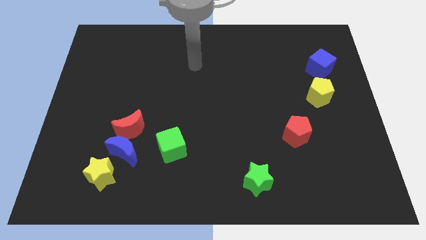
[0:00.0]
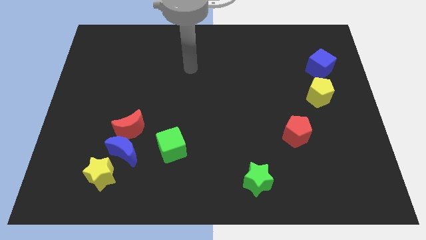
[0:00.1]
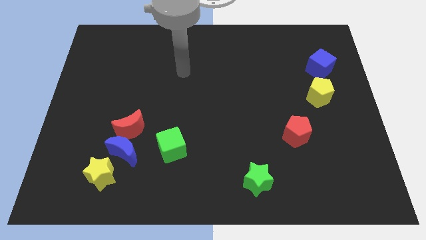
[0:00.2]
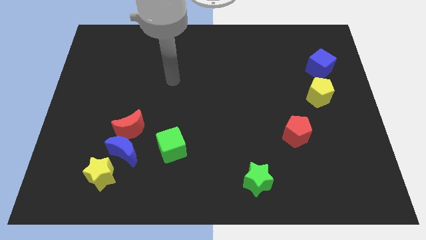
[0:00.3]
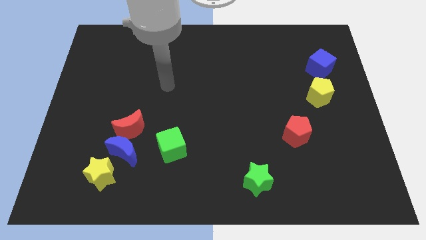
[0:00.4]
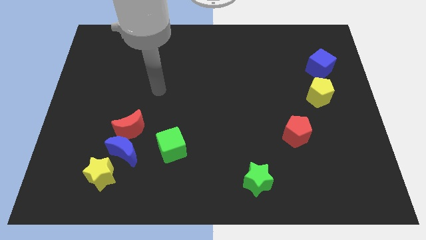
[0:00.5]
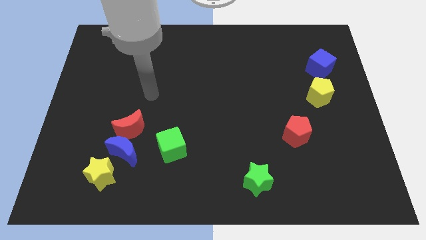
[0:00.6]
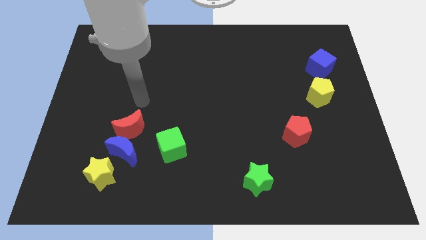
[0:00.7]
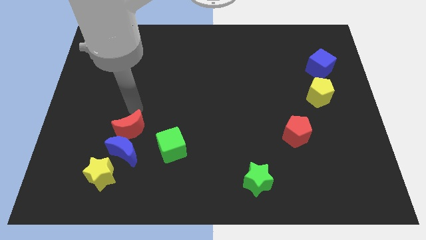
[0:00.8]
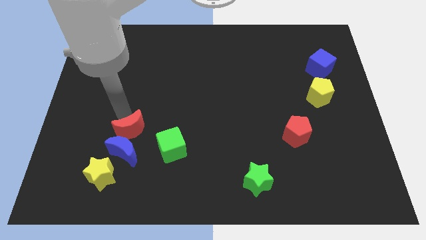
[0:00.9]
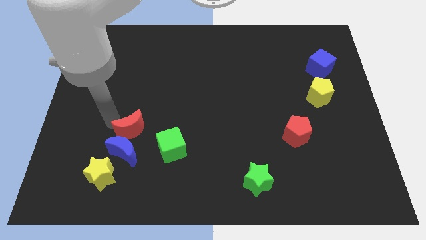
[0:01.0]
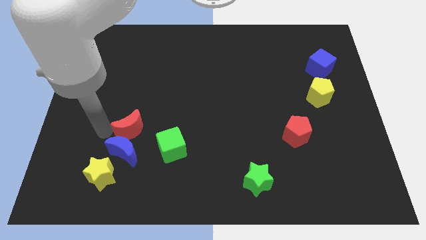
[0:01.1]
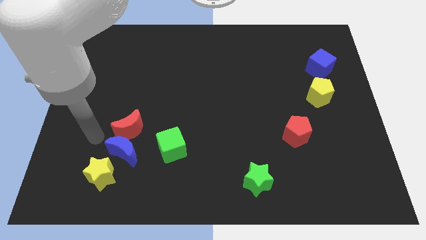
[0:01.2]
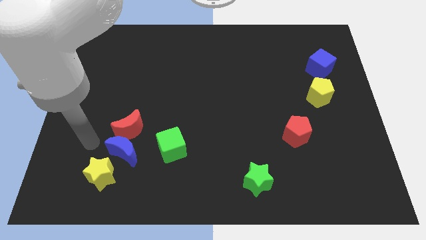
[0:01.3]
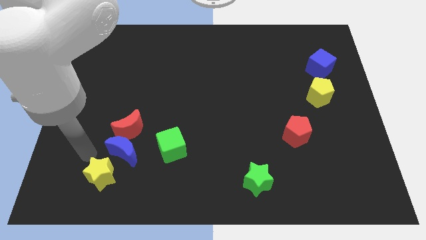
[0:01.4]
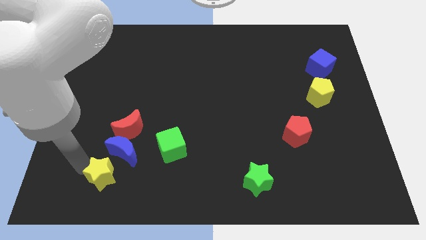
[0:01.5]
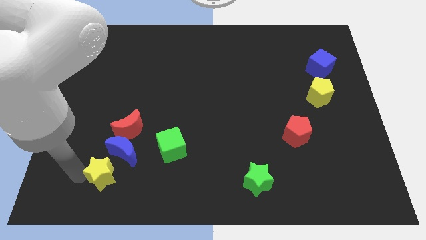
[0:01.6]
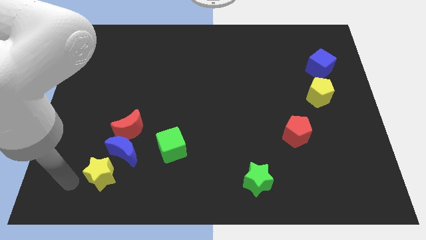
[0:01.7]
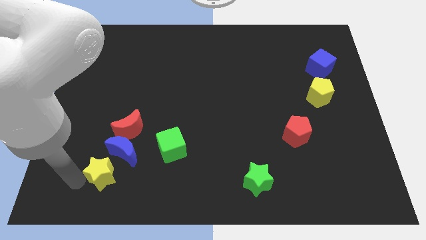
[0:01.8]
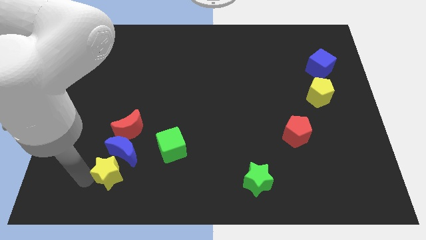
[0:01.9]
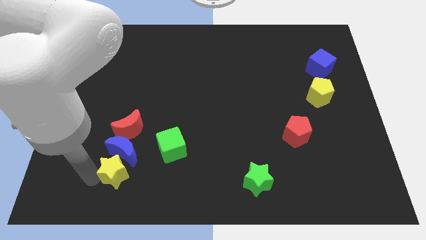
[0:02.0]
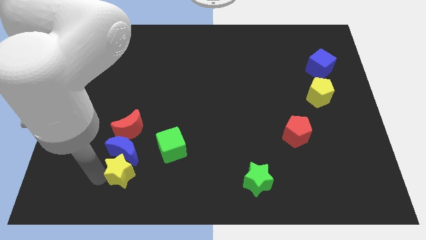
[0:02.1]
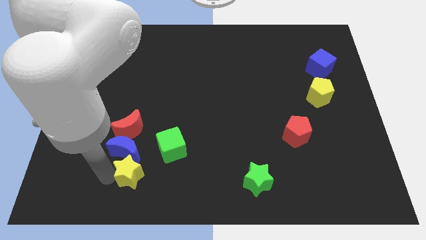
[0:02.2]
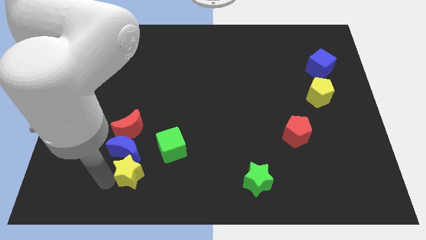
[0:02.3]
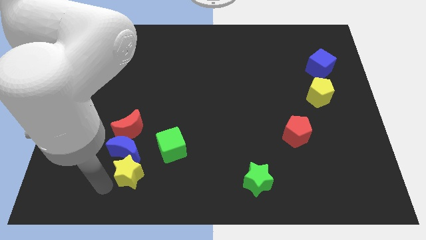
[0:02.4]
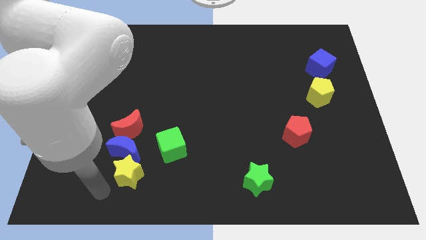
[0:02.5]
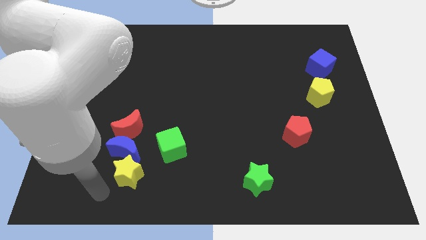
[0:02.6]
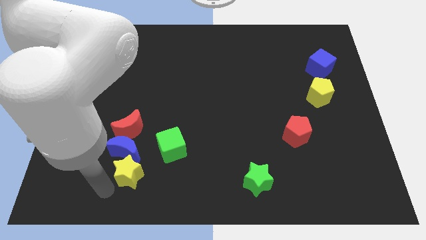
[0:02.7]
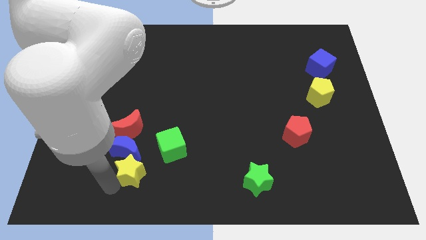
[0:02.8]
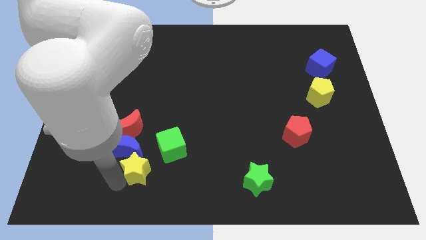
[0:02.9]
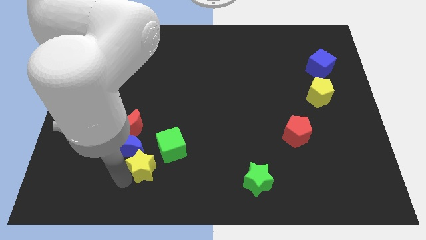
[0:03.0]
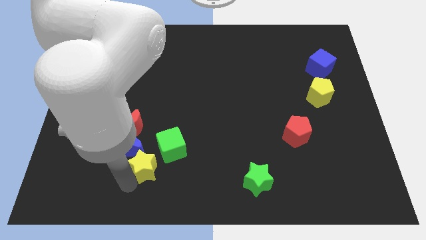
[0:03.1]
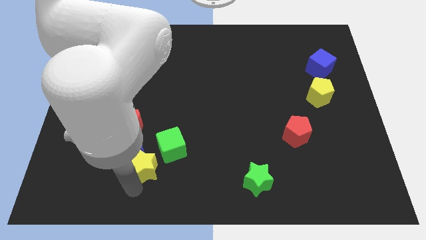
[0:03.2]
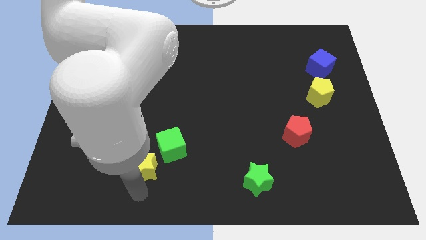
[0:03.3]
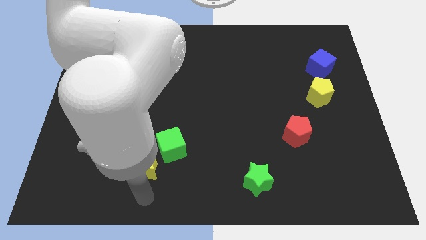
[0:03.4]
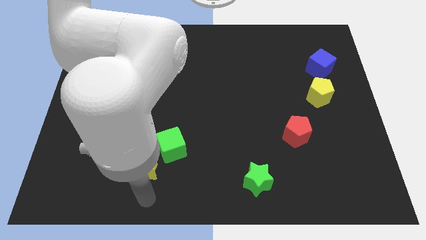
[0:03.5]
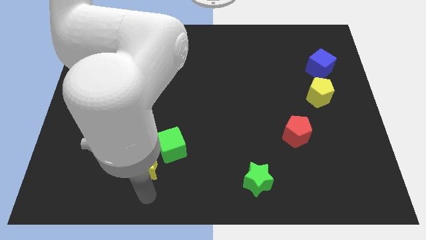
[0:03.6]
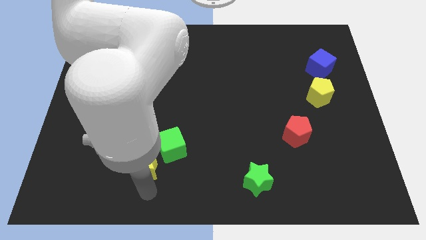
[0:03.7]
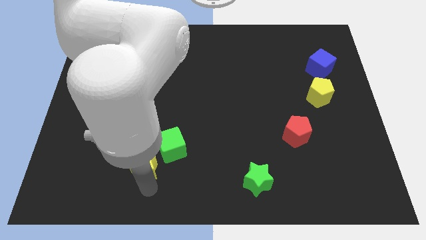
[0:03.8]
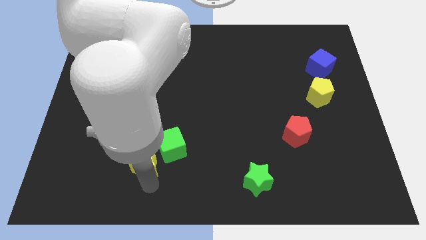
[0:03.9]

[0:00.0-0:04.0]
push the yellow star up and to the right diagonally a little bit

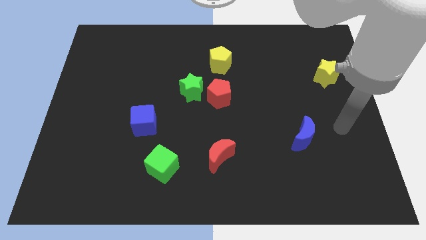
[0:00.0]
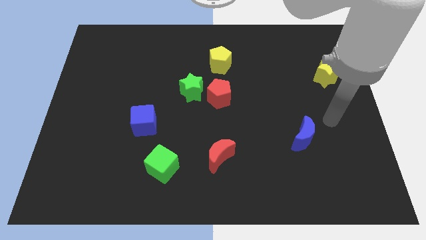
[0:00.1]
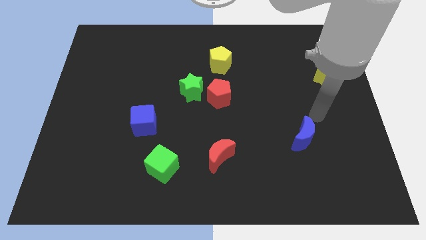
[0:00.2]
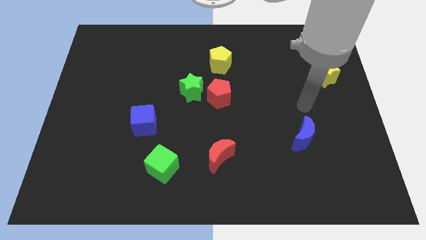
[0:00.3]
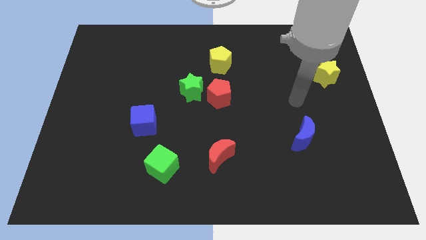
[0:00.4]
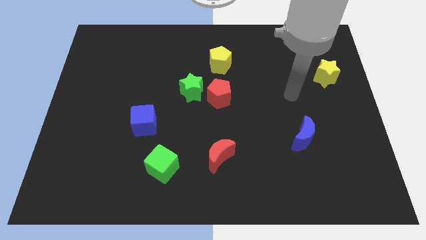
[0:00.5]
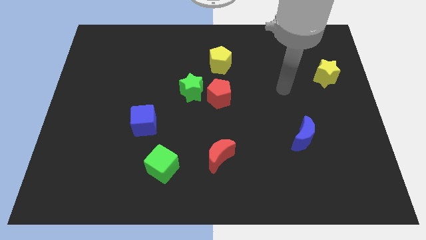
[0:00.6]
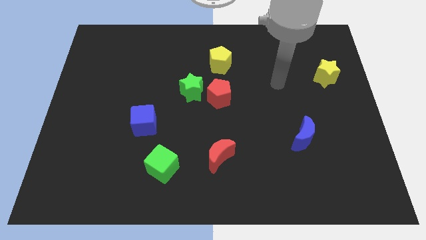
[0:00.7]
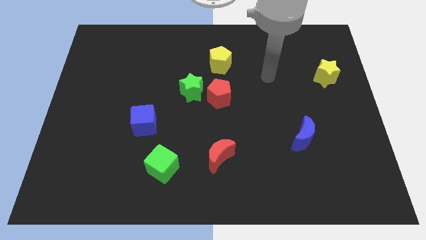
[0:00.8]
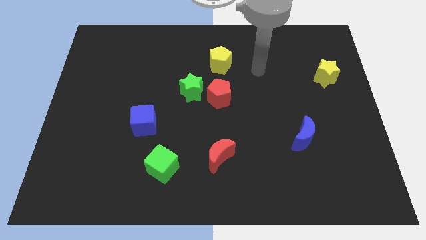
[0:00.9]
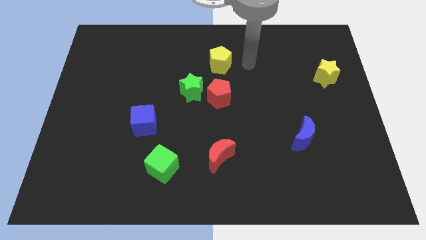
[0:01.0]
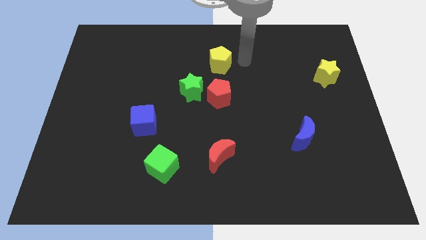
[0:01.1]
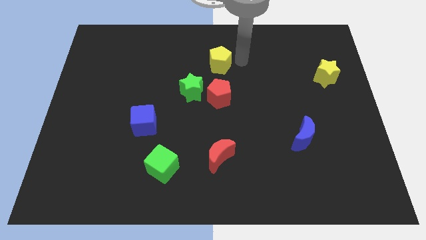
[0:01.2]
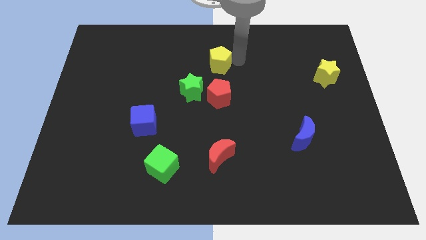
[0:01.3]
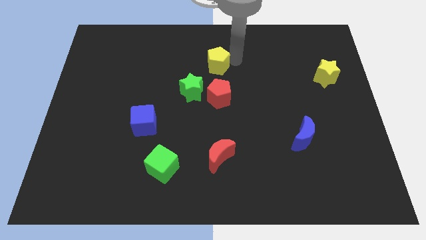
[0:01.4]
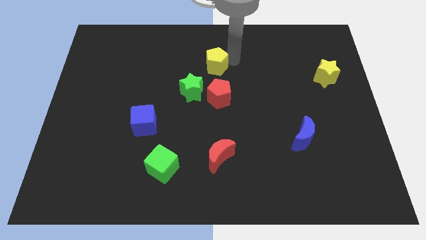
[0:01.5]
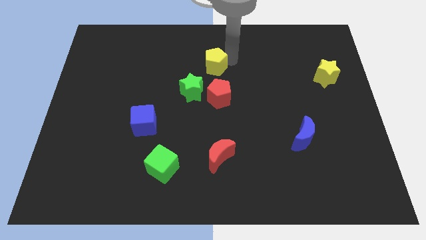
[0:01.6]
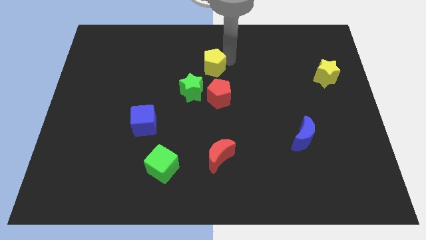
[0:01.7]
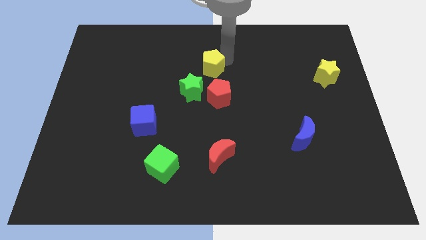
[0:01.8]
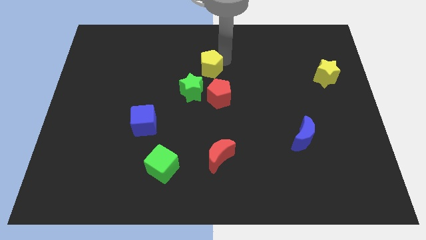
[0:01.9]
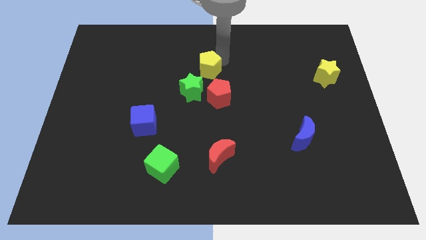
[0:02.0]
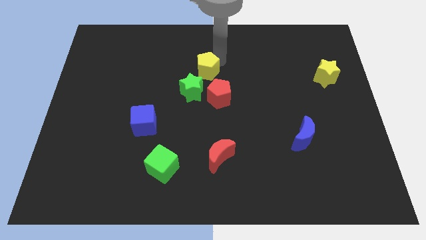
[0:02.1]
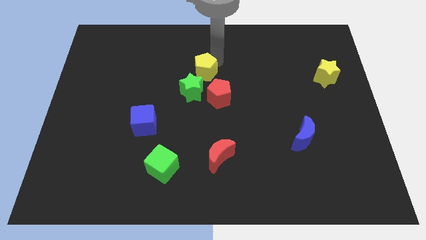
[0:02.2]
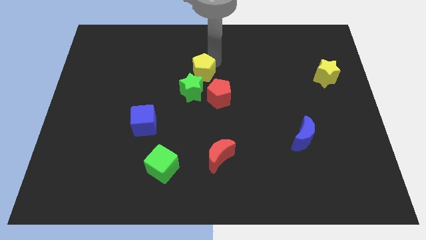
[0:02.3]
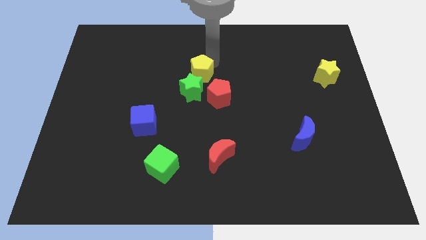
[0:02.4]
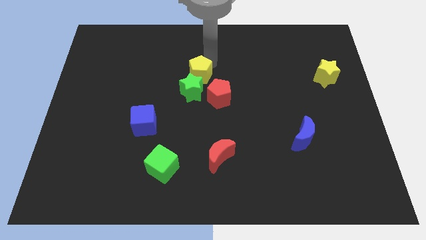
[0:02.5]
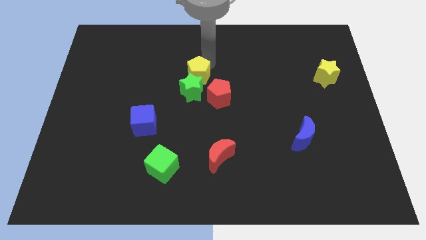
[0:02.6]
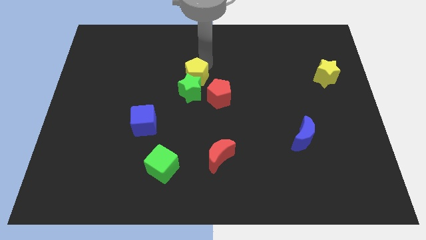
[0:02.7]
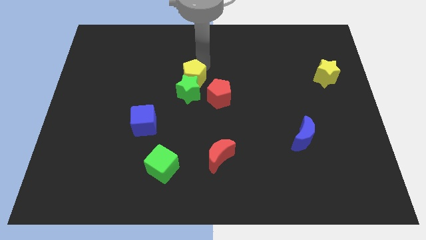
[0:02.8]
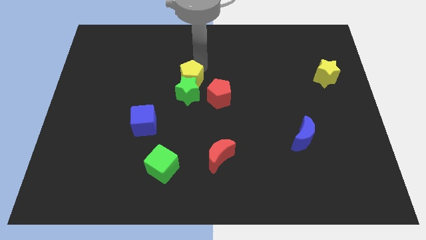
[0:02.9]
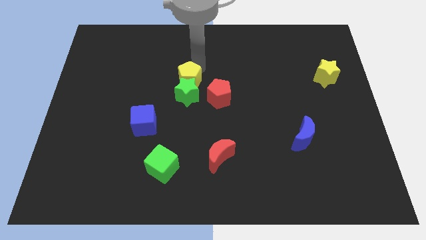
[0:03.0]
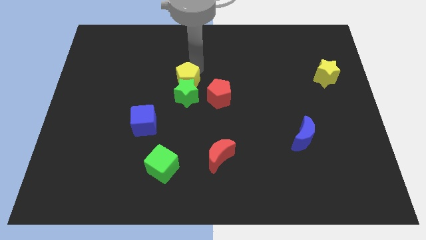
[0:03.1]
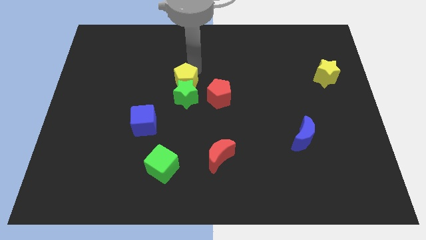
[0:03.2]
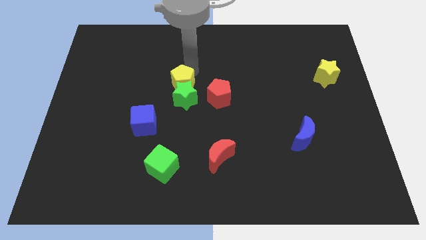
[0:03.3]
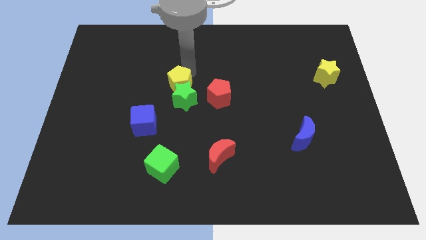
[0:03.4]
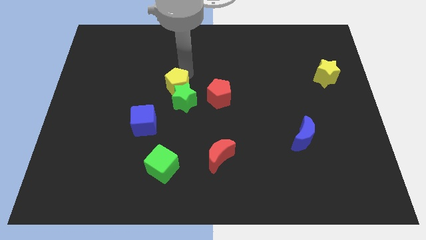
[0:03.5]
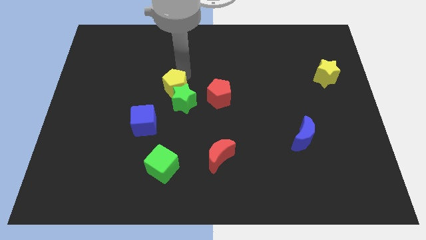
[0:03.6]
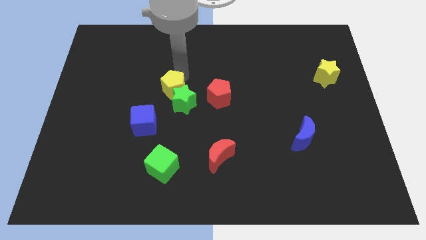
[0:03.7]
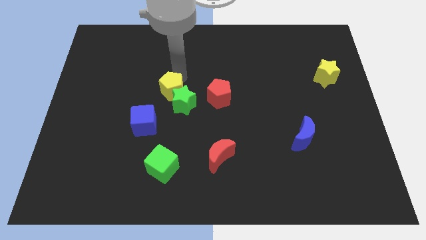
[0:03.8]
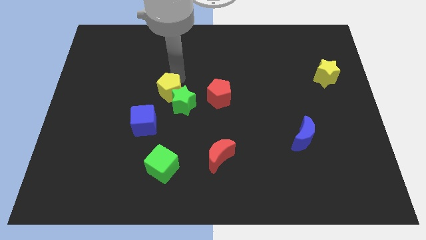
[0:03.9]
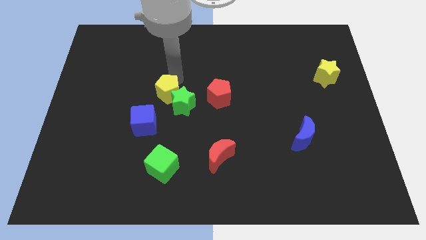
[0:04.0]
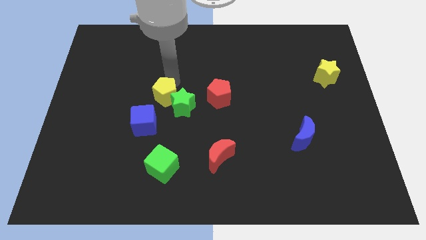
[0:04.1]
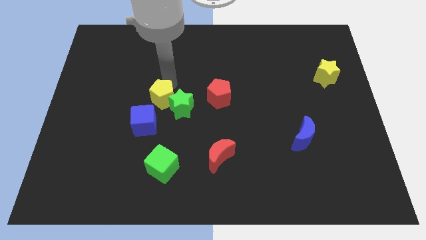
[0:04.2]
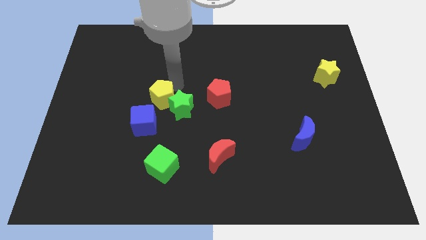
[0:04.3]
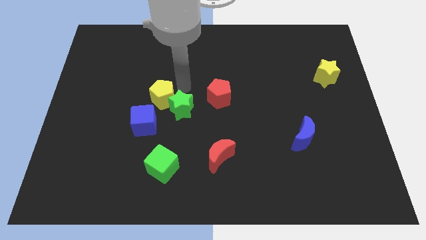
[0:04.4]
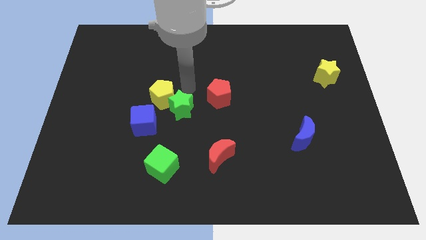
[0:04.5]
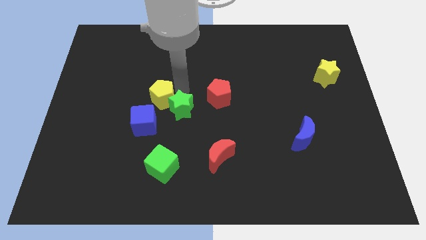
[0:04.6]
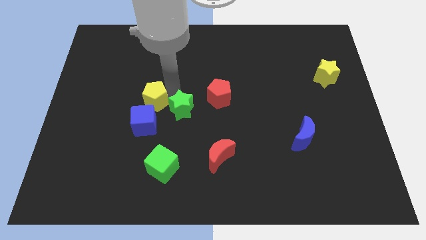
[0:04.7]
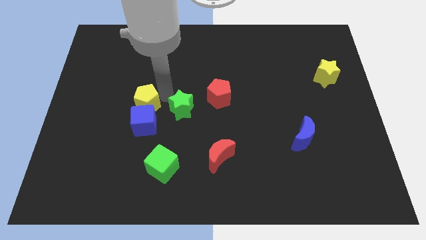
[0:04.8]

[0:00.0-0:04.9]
move the yellow pentagon down and left
